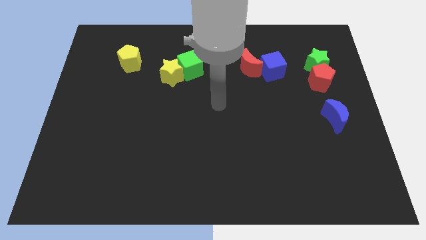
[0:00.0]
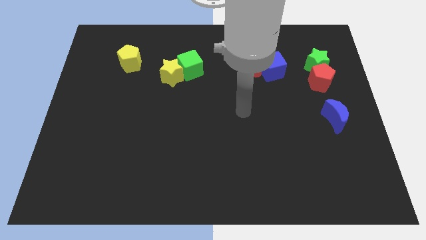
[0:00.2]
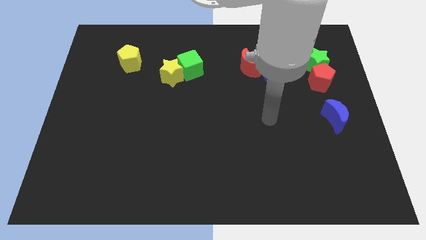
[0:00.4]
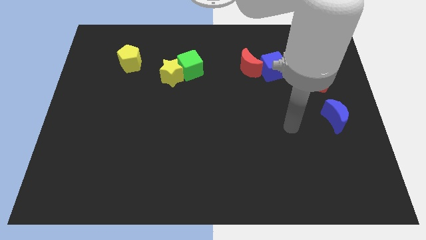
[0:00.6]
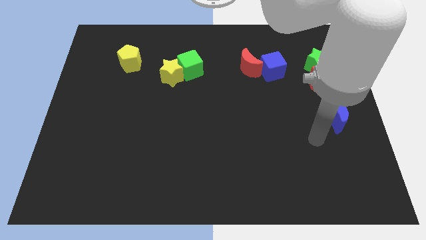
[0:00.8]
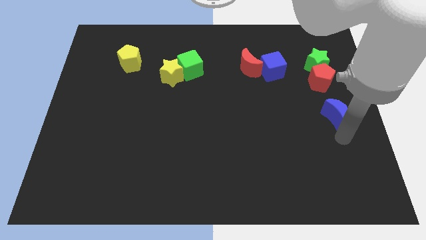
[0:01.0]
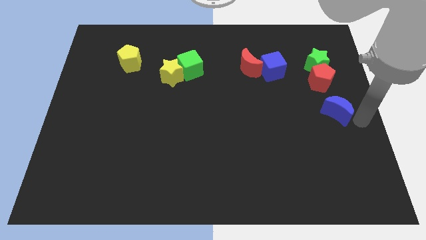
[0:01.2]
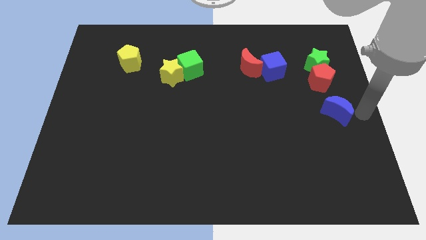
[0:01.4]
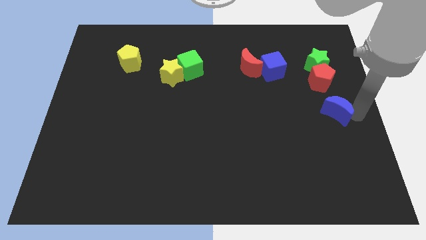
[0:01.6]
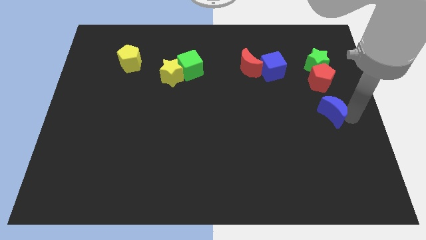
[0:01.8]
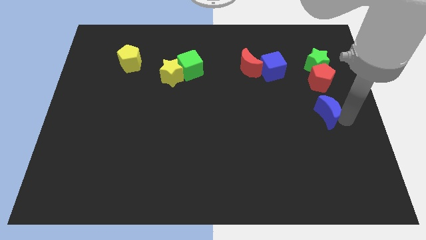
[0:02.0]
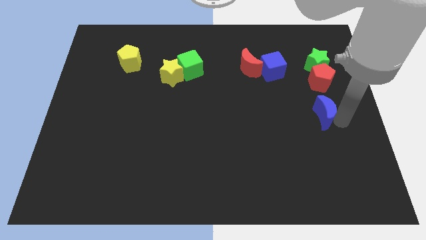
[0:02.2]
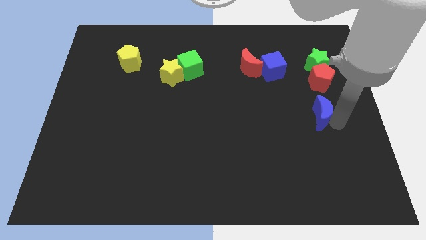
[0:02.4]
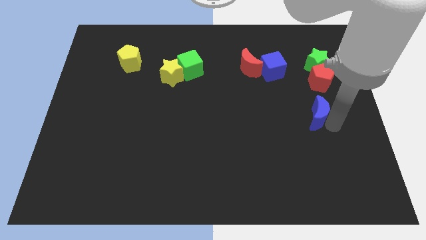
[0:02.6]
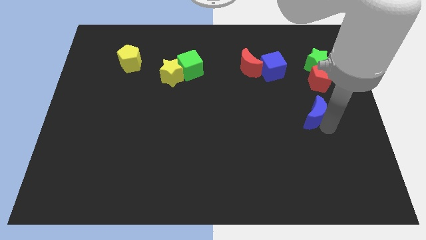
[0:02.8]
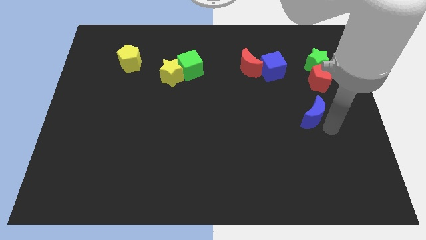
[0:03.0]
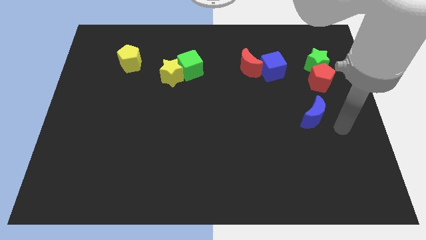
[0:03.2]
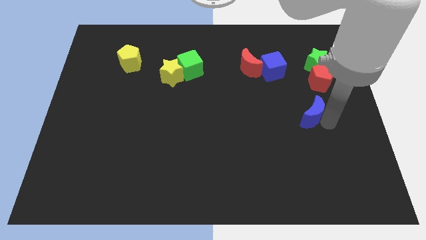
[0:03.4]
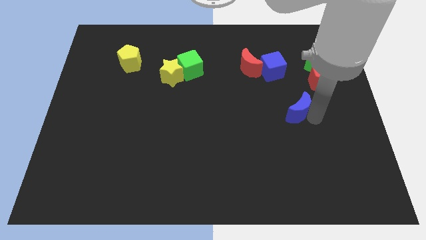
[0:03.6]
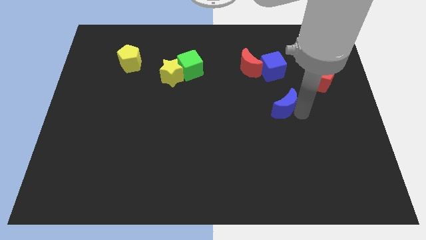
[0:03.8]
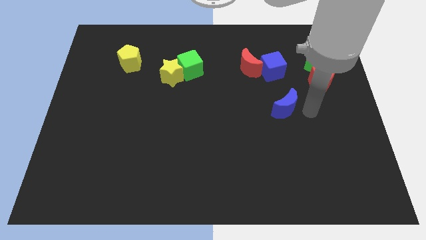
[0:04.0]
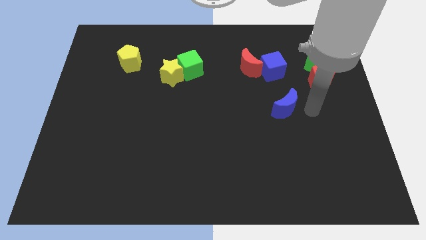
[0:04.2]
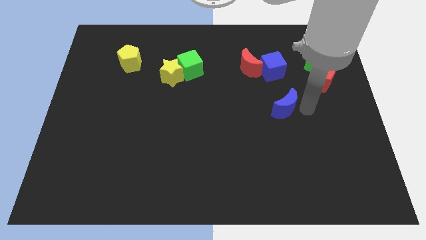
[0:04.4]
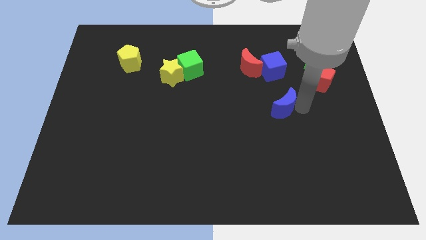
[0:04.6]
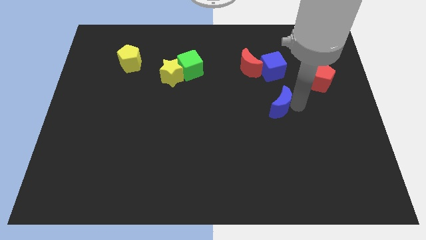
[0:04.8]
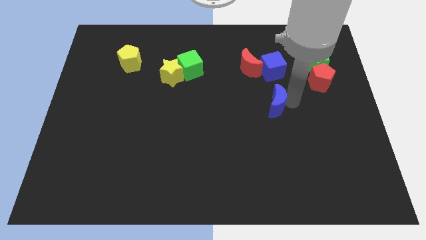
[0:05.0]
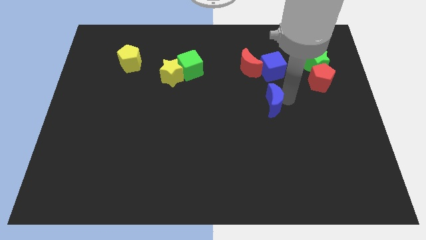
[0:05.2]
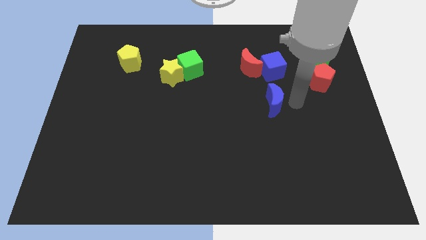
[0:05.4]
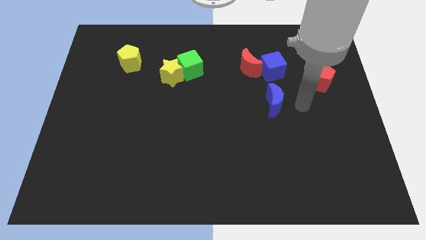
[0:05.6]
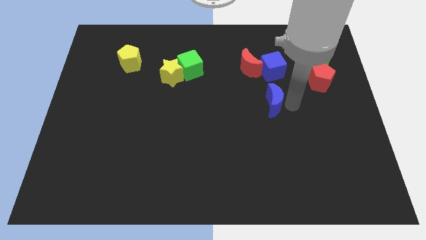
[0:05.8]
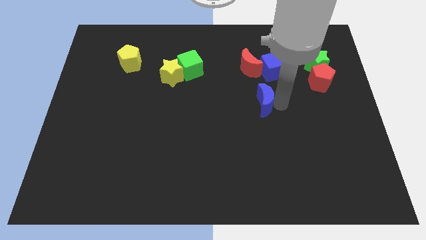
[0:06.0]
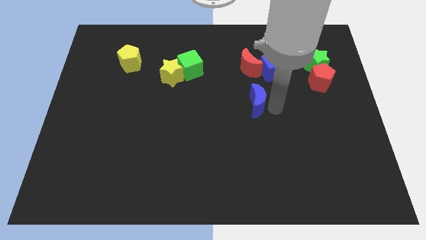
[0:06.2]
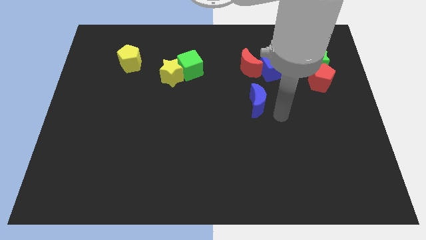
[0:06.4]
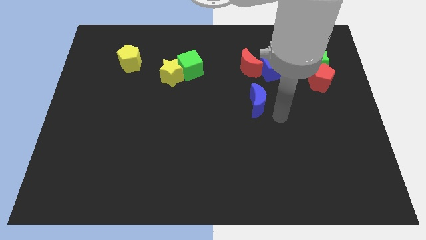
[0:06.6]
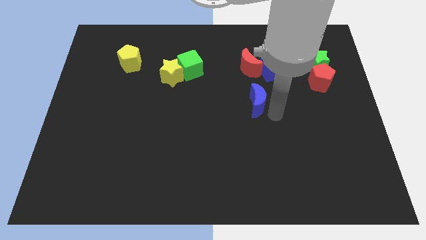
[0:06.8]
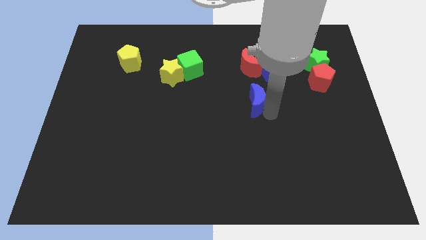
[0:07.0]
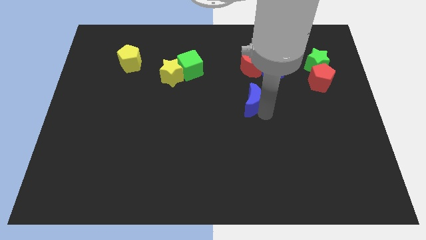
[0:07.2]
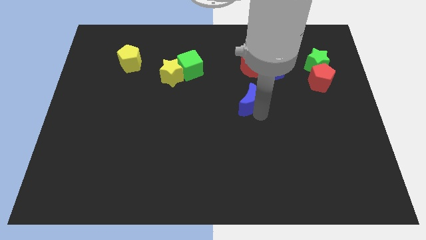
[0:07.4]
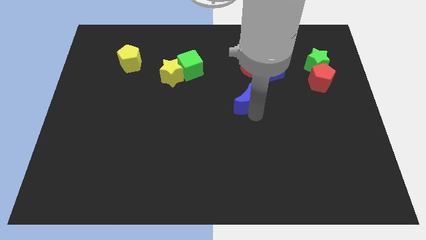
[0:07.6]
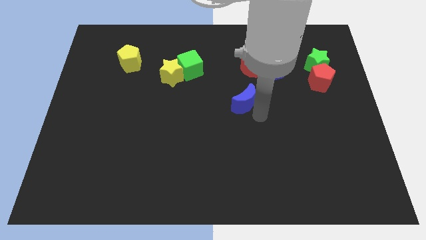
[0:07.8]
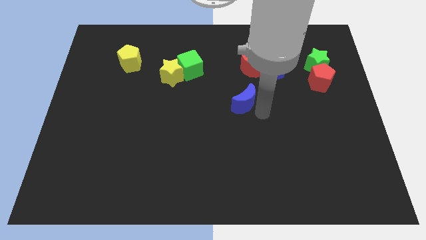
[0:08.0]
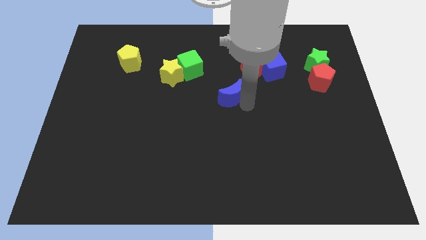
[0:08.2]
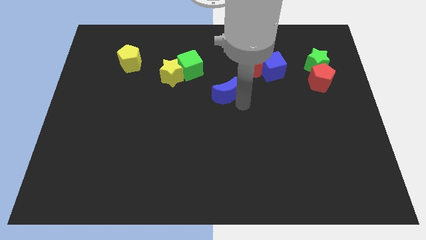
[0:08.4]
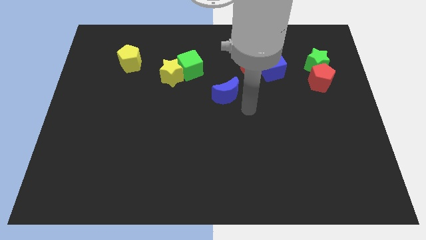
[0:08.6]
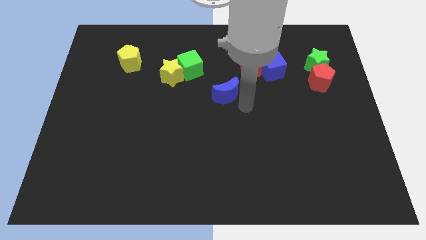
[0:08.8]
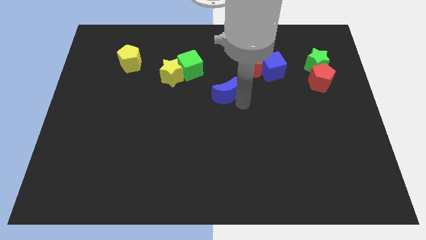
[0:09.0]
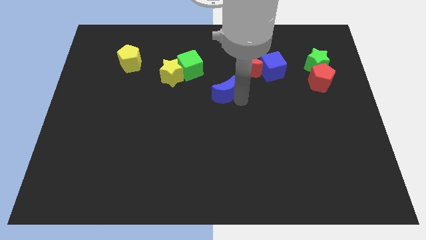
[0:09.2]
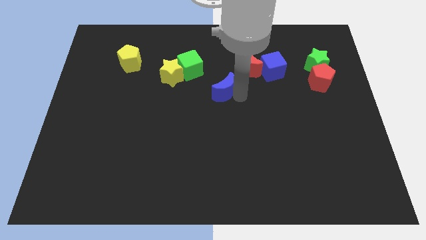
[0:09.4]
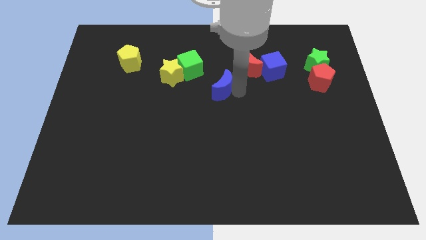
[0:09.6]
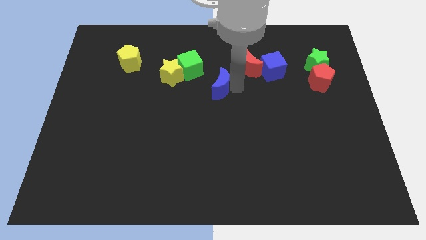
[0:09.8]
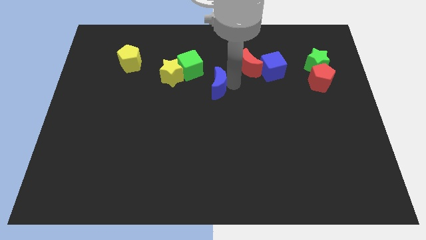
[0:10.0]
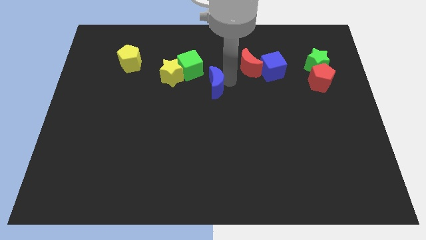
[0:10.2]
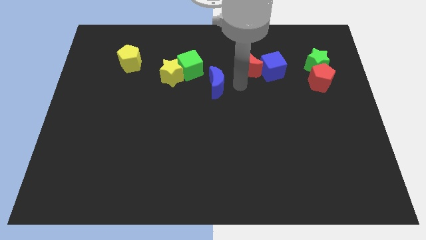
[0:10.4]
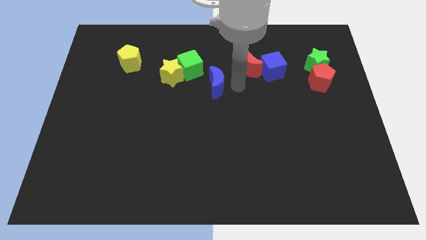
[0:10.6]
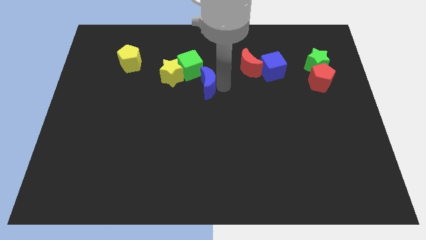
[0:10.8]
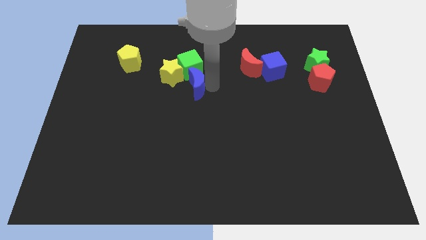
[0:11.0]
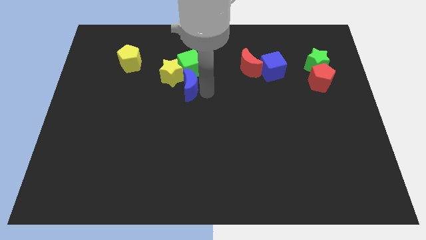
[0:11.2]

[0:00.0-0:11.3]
put the blue moon next to the yellow star

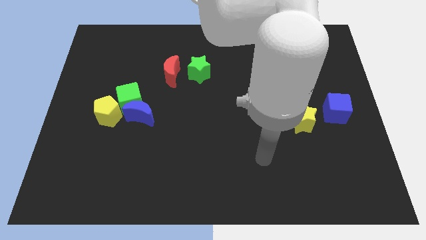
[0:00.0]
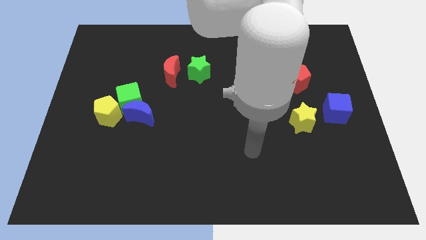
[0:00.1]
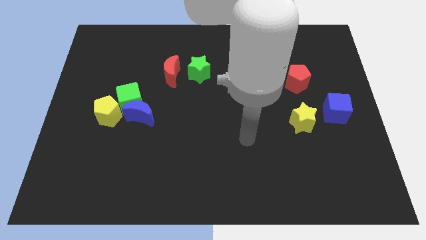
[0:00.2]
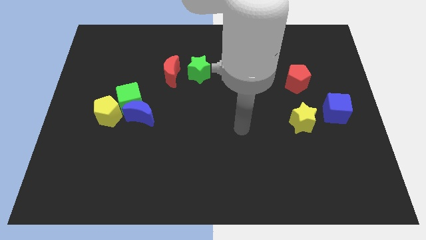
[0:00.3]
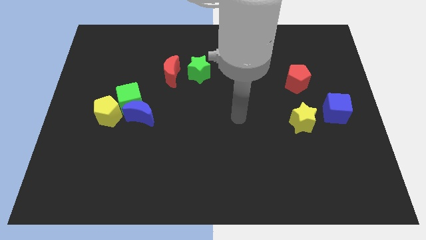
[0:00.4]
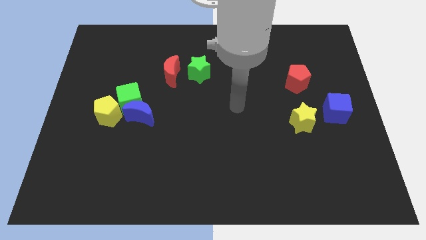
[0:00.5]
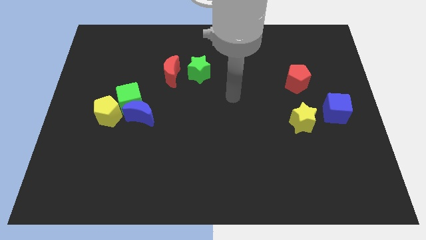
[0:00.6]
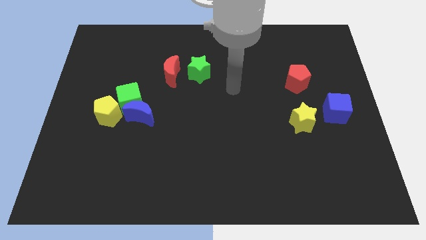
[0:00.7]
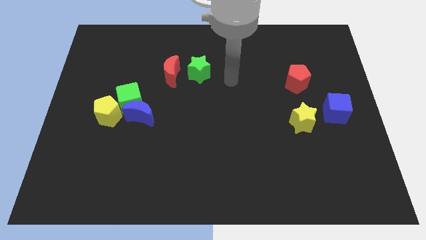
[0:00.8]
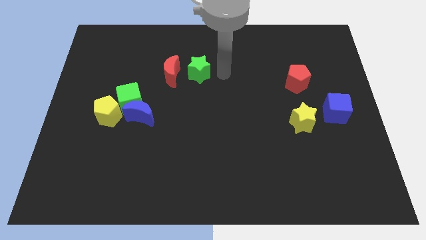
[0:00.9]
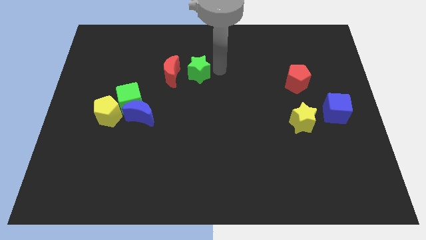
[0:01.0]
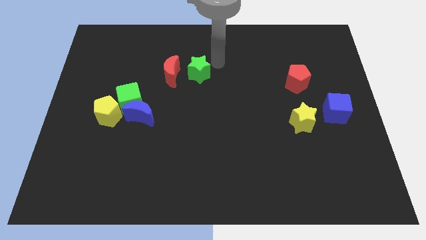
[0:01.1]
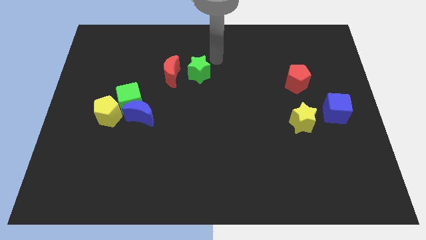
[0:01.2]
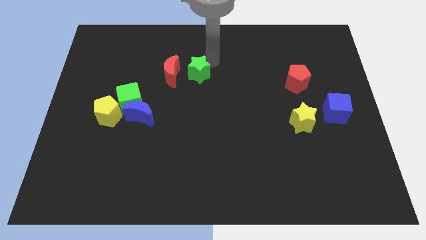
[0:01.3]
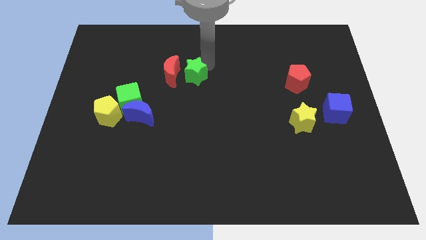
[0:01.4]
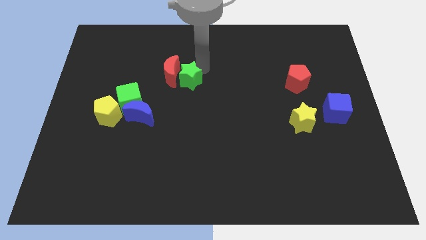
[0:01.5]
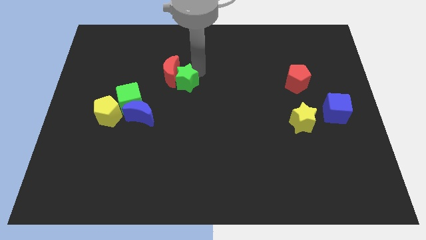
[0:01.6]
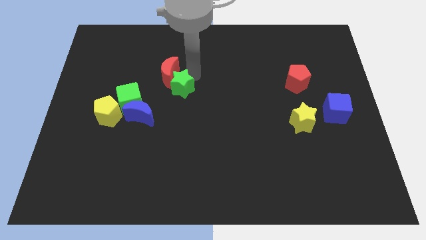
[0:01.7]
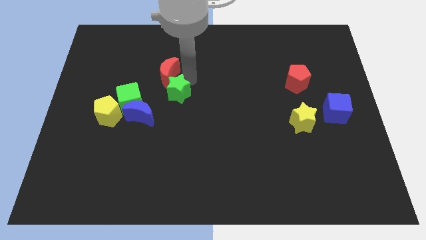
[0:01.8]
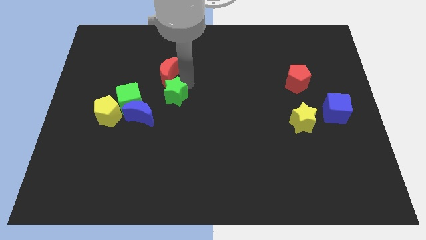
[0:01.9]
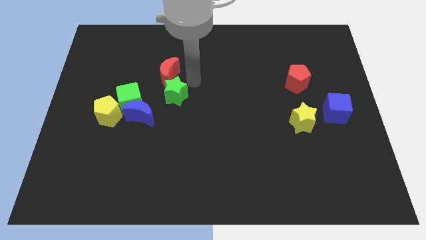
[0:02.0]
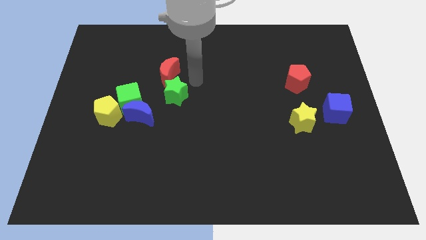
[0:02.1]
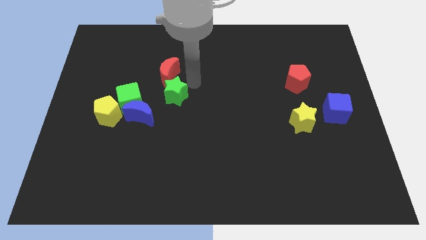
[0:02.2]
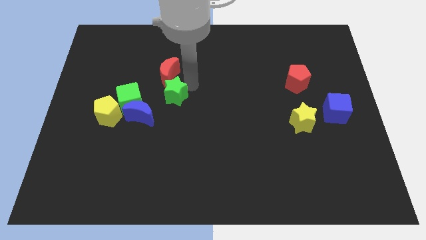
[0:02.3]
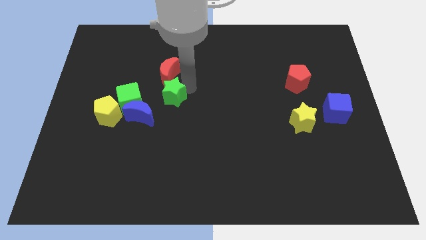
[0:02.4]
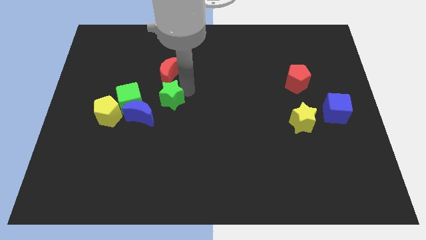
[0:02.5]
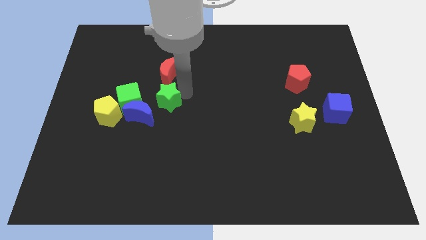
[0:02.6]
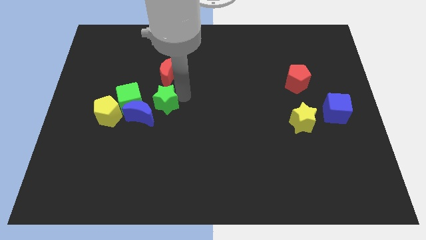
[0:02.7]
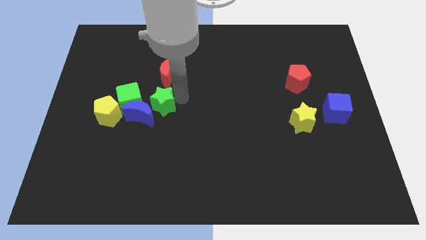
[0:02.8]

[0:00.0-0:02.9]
push the green star next to the blue moon
